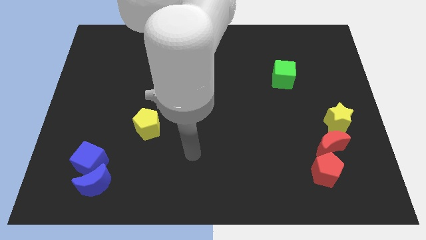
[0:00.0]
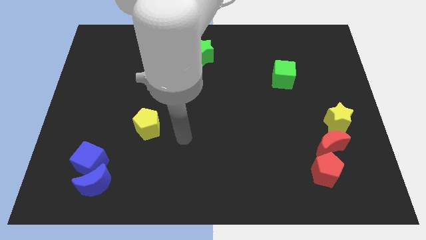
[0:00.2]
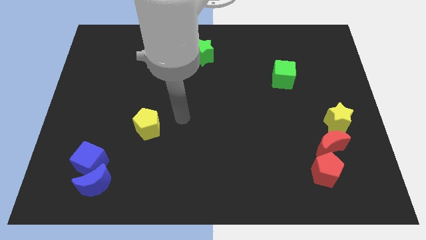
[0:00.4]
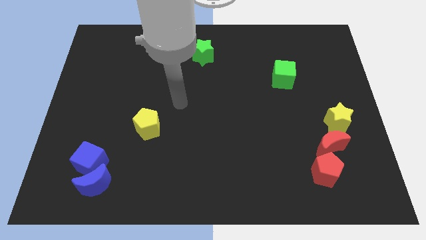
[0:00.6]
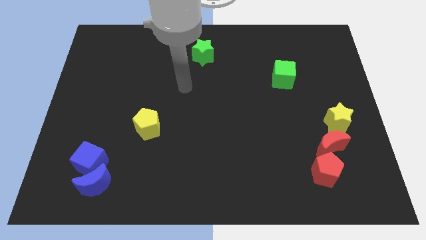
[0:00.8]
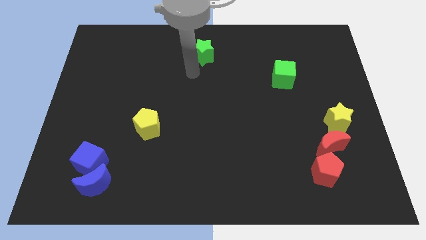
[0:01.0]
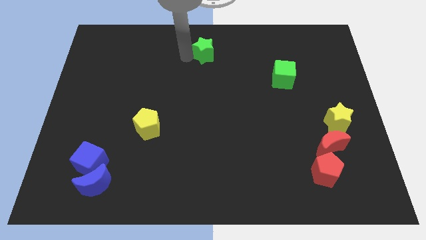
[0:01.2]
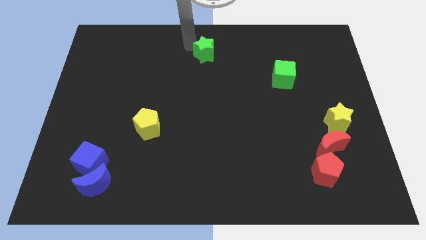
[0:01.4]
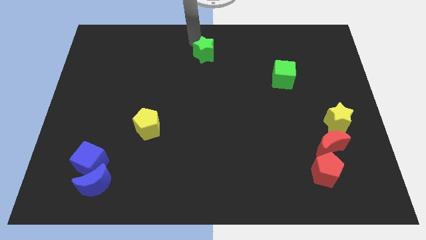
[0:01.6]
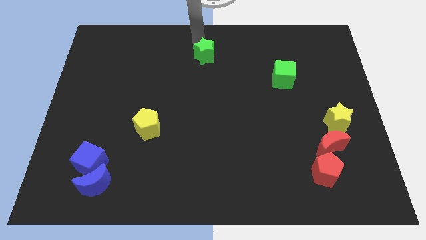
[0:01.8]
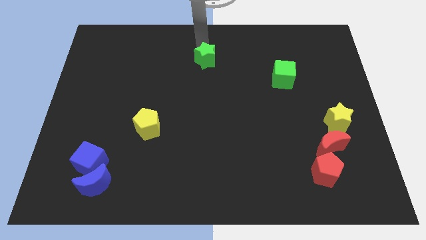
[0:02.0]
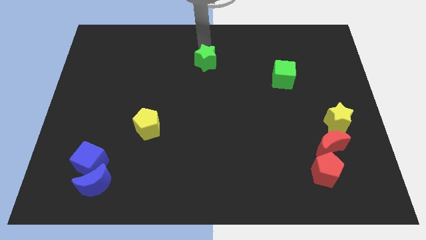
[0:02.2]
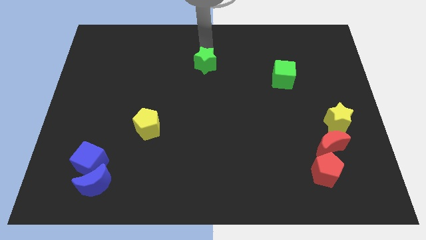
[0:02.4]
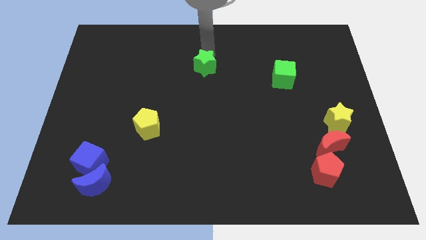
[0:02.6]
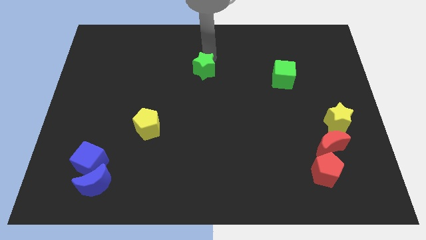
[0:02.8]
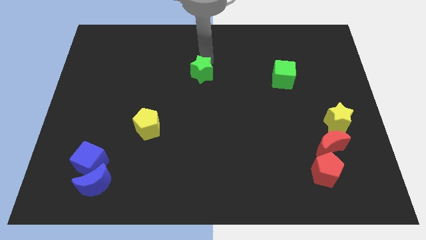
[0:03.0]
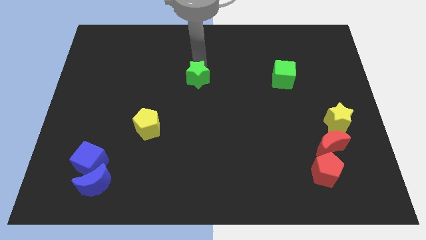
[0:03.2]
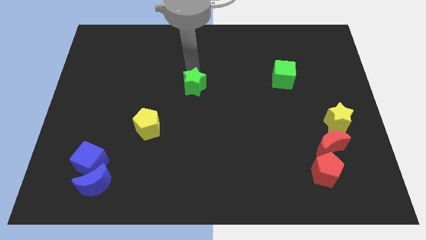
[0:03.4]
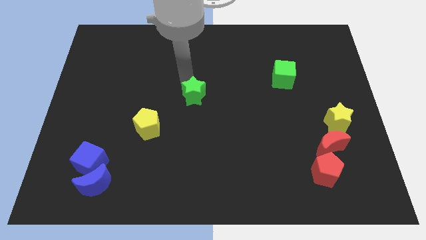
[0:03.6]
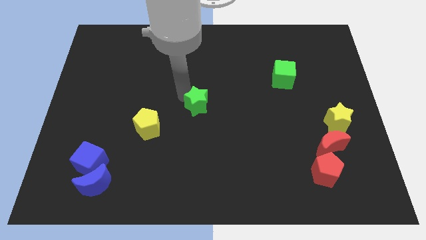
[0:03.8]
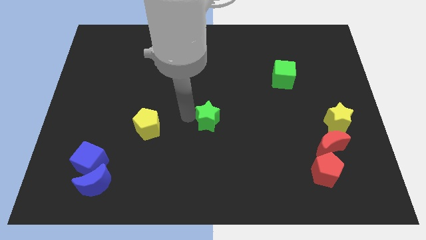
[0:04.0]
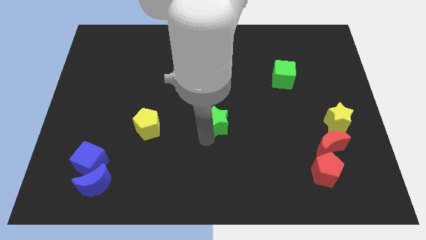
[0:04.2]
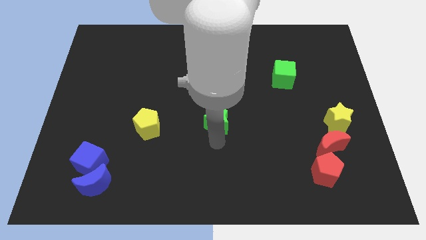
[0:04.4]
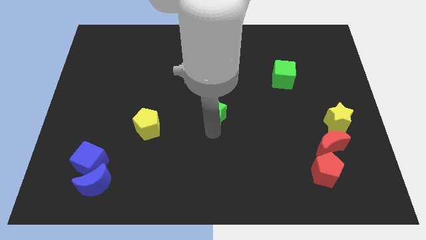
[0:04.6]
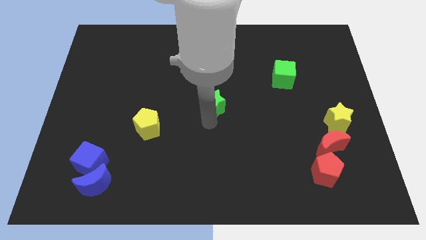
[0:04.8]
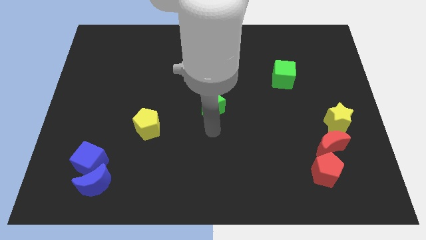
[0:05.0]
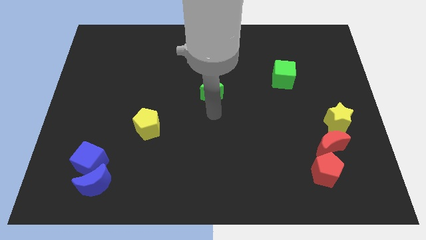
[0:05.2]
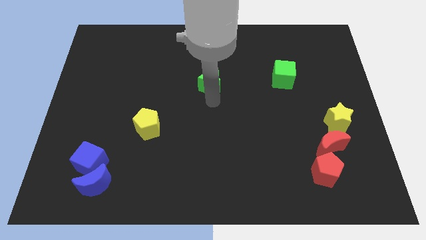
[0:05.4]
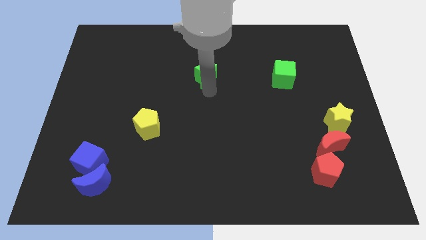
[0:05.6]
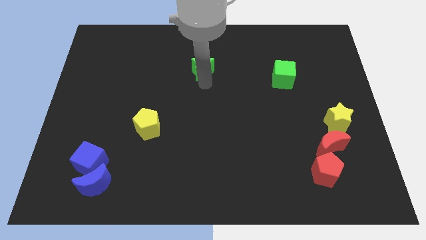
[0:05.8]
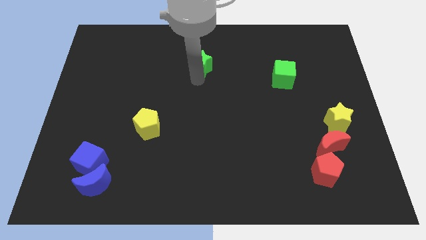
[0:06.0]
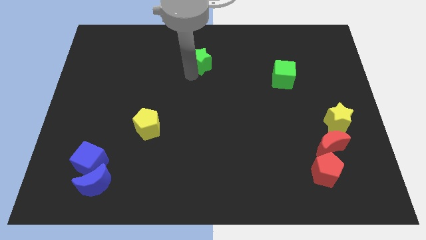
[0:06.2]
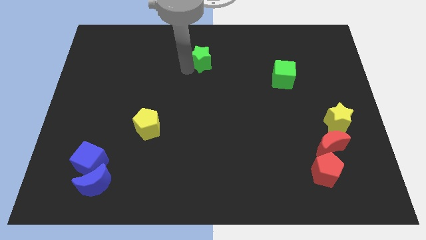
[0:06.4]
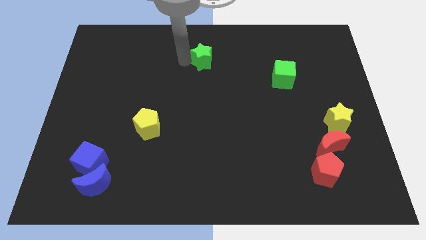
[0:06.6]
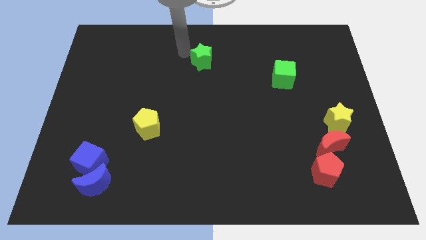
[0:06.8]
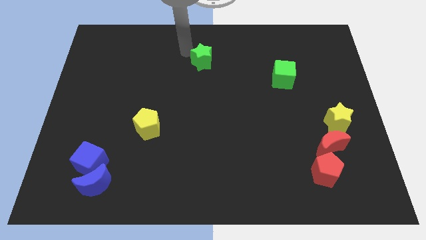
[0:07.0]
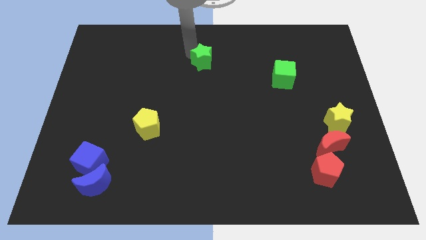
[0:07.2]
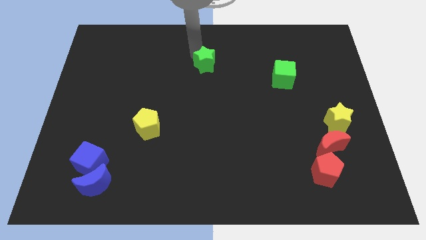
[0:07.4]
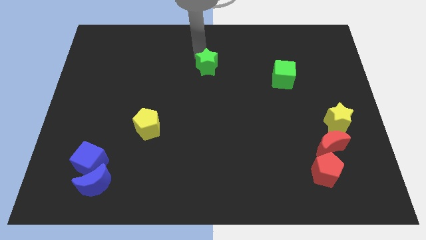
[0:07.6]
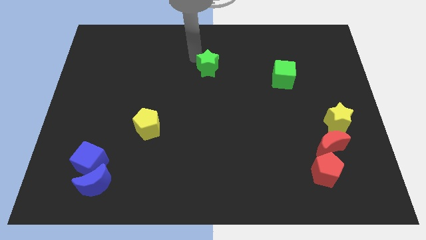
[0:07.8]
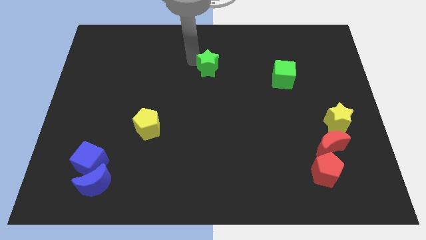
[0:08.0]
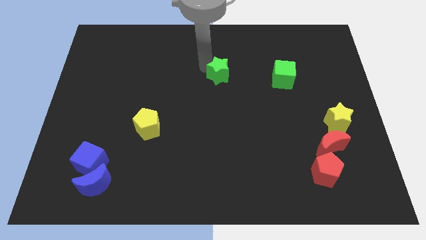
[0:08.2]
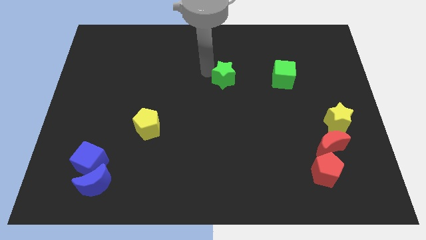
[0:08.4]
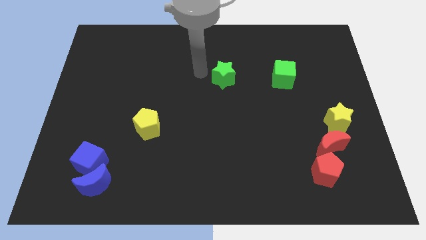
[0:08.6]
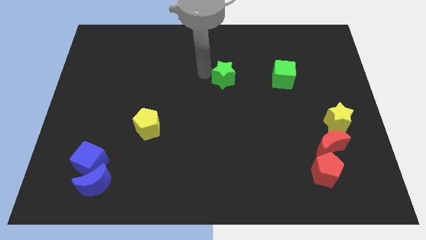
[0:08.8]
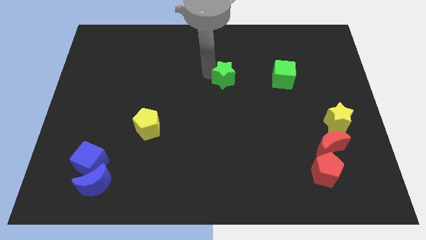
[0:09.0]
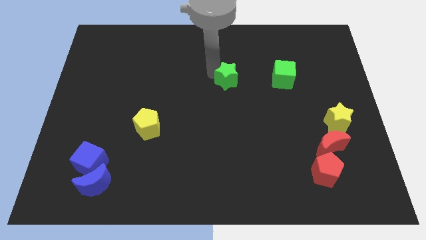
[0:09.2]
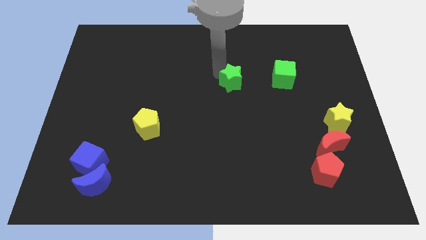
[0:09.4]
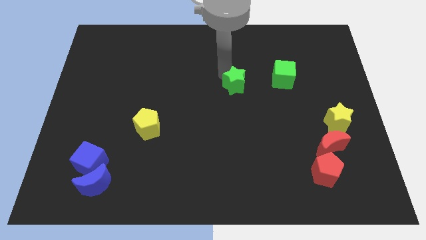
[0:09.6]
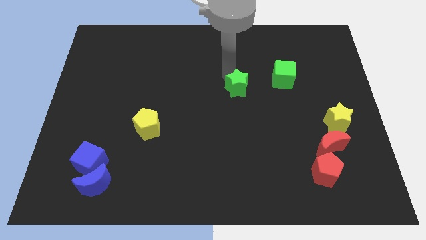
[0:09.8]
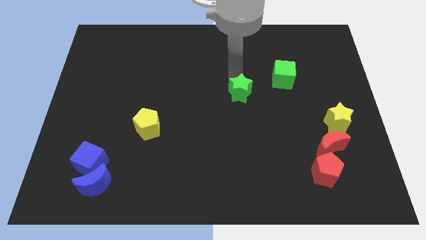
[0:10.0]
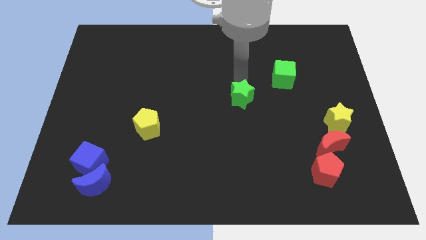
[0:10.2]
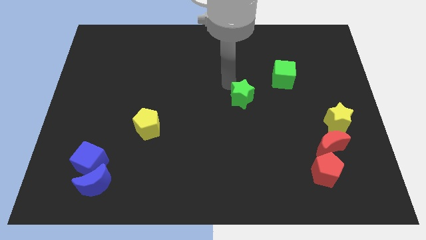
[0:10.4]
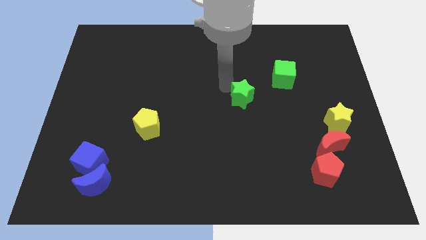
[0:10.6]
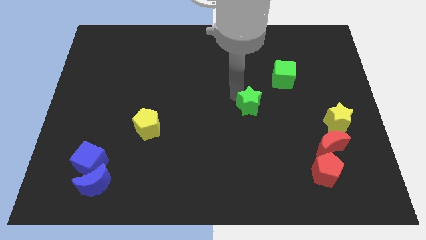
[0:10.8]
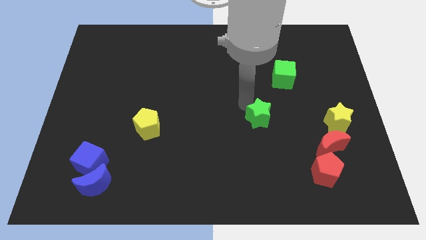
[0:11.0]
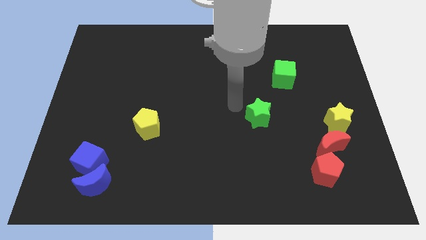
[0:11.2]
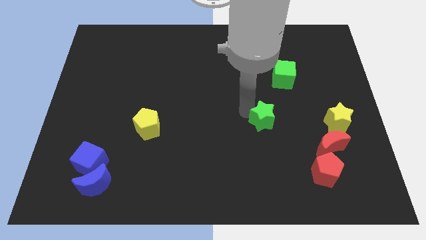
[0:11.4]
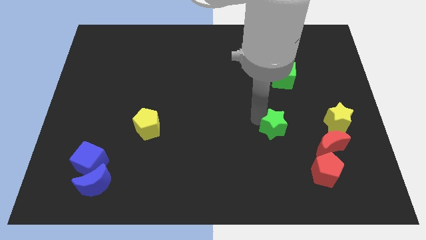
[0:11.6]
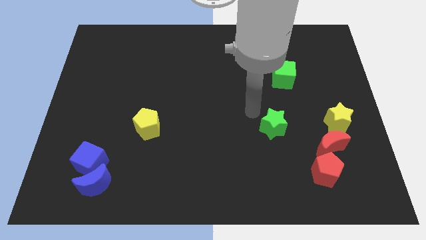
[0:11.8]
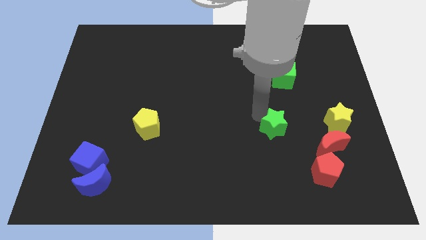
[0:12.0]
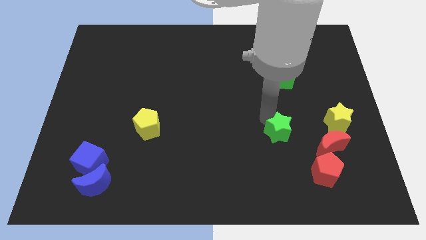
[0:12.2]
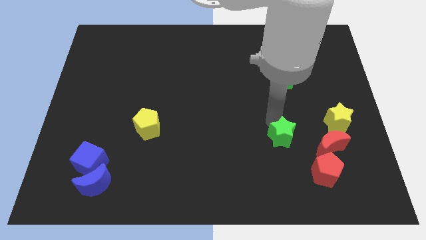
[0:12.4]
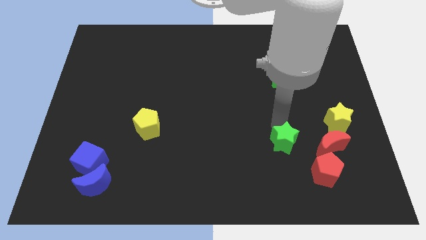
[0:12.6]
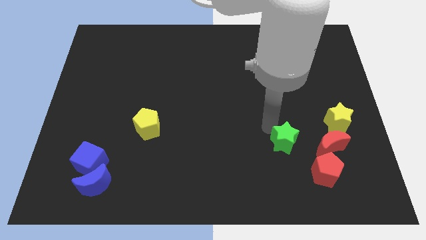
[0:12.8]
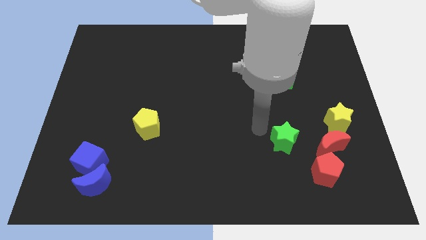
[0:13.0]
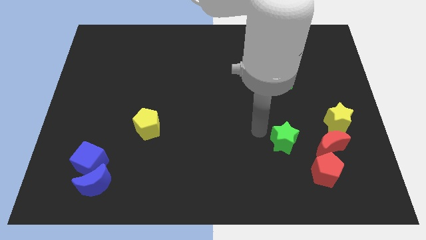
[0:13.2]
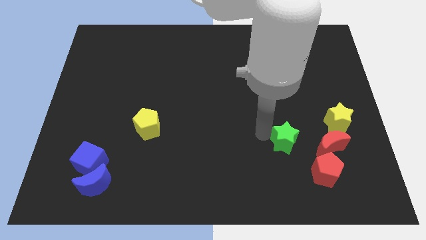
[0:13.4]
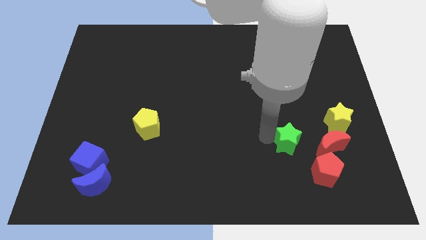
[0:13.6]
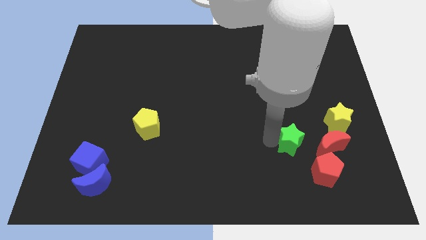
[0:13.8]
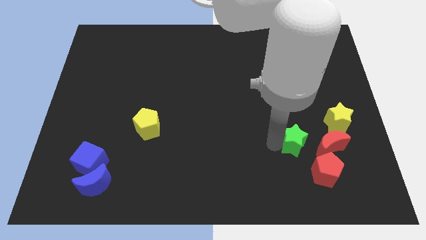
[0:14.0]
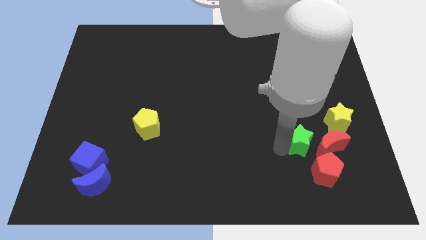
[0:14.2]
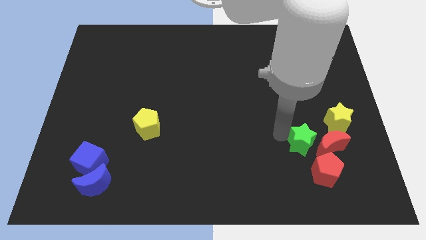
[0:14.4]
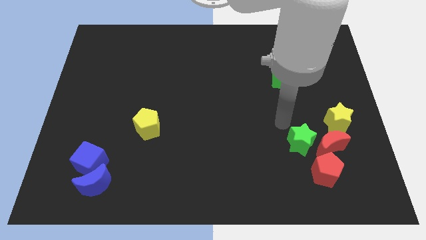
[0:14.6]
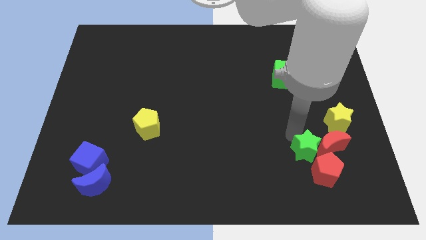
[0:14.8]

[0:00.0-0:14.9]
push the green star next to the red pentagon
